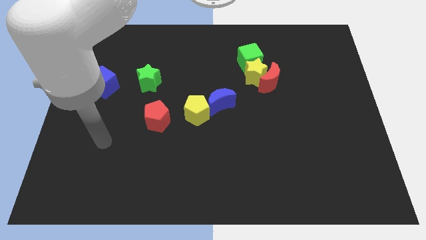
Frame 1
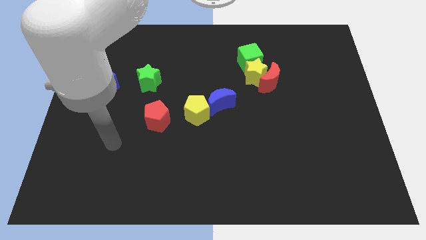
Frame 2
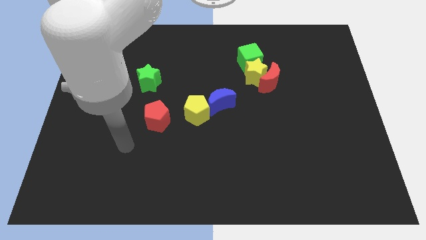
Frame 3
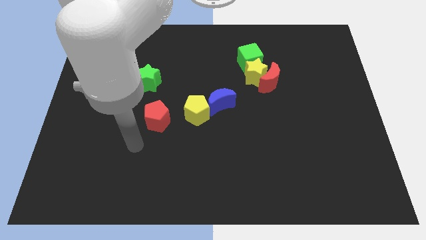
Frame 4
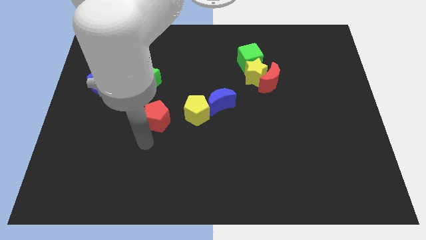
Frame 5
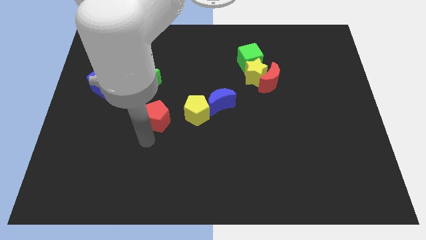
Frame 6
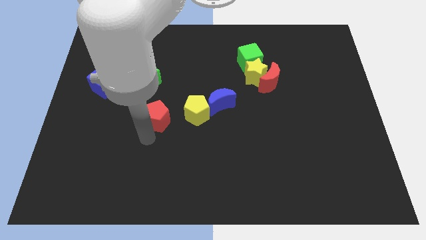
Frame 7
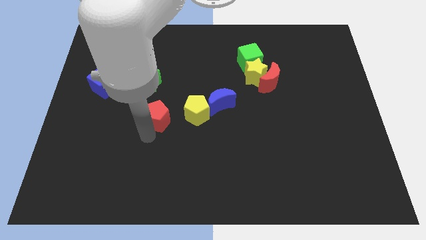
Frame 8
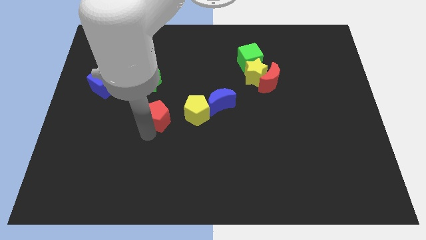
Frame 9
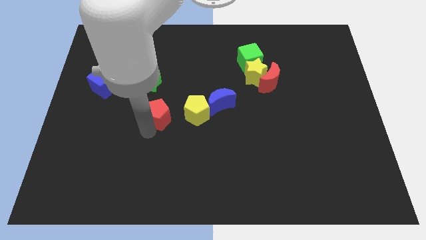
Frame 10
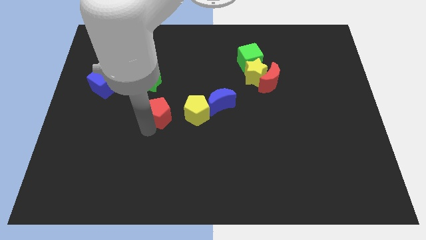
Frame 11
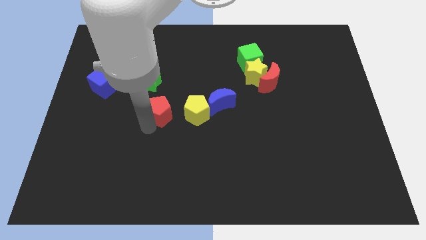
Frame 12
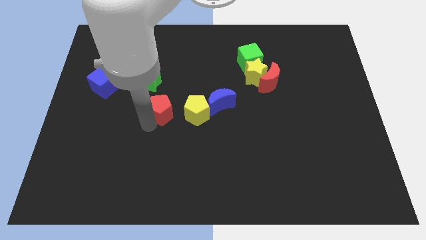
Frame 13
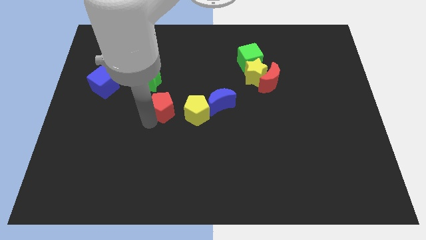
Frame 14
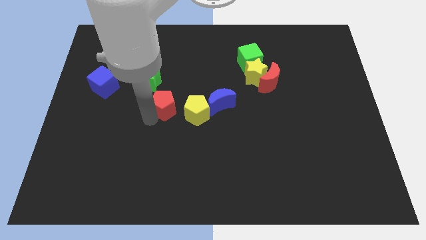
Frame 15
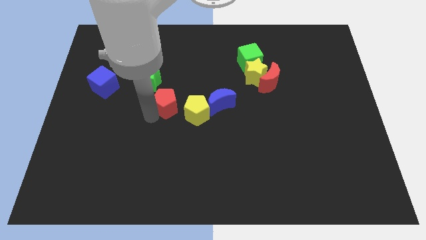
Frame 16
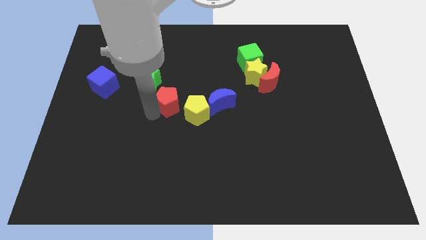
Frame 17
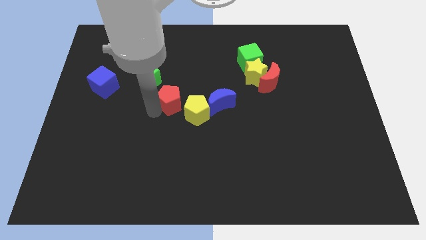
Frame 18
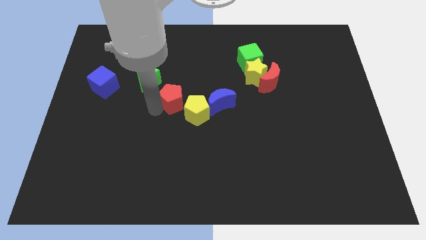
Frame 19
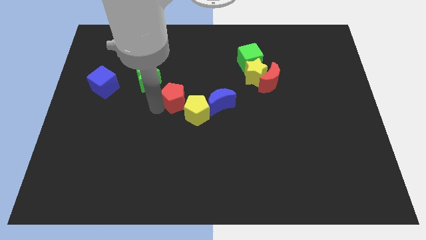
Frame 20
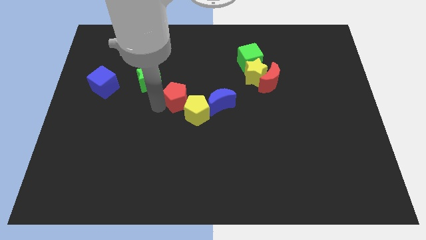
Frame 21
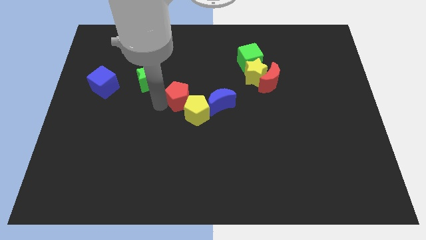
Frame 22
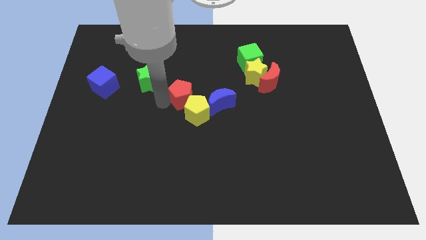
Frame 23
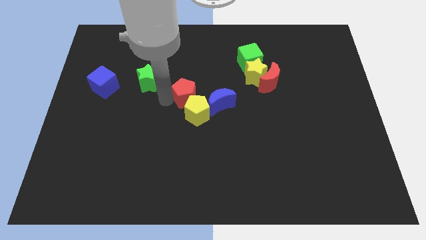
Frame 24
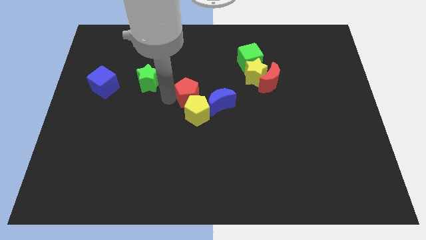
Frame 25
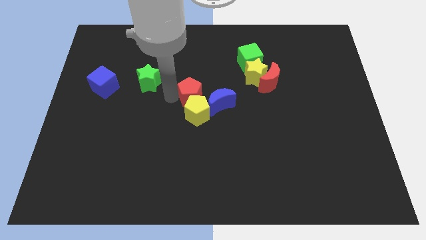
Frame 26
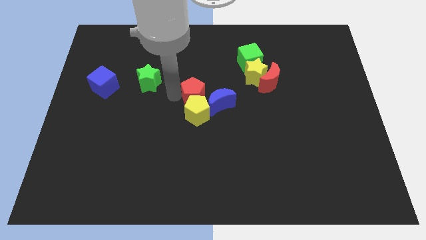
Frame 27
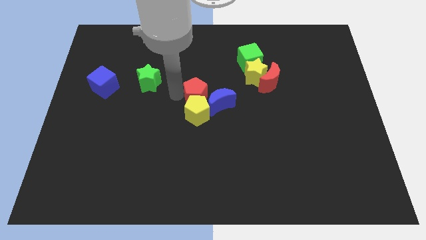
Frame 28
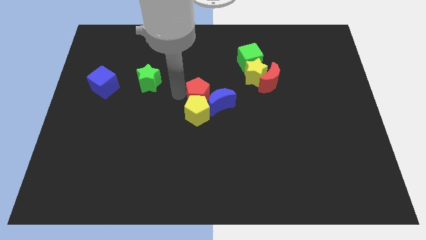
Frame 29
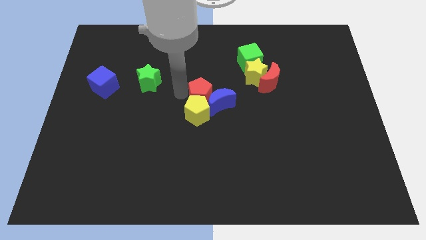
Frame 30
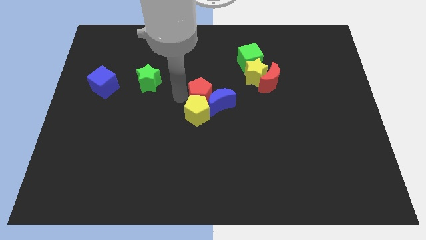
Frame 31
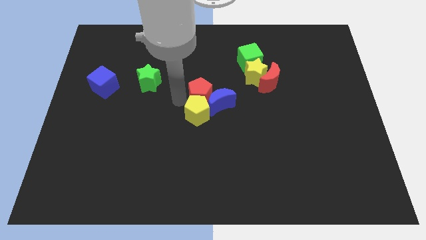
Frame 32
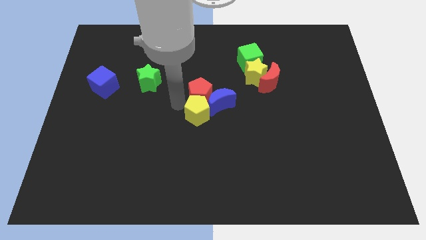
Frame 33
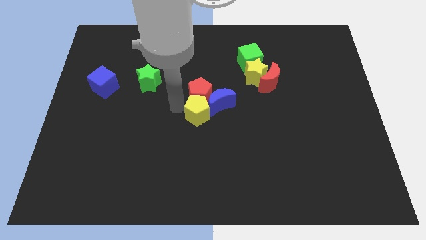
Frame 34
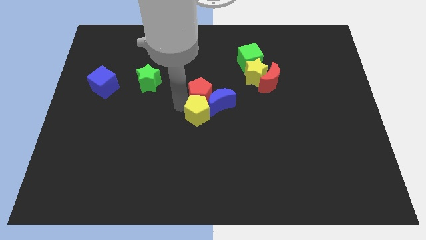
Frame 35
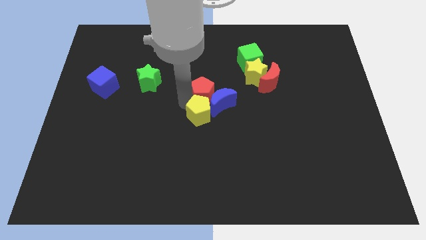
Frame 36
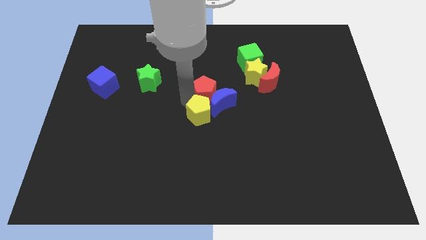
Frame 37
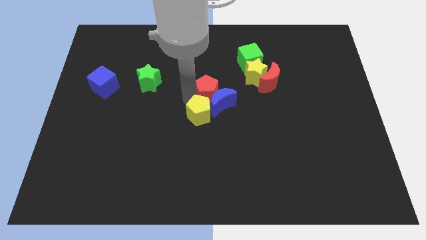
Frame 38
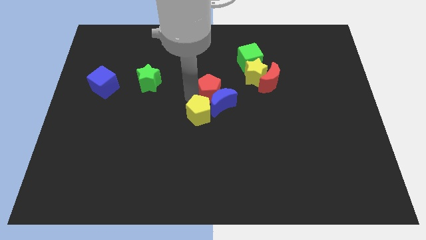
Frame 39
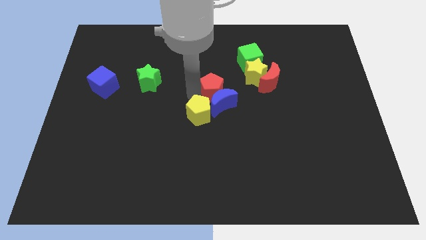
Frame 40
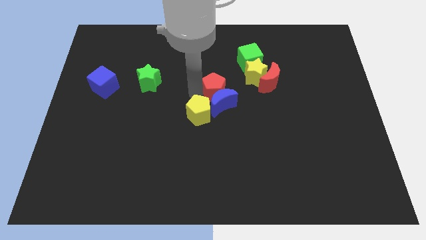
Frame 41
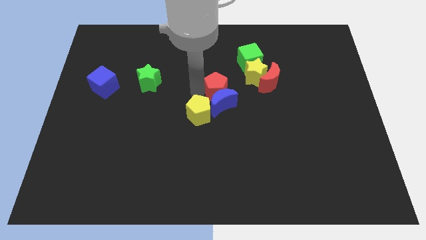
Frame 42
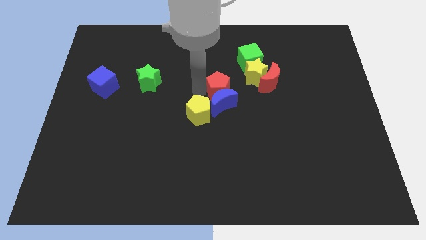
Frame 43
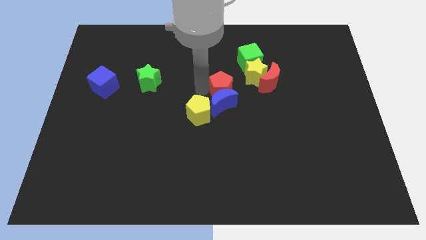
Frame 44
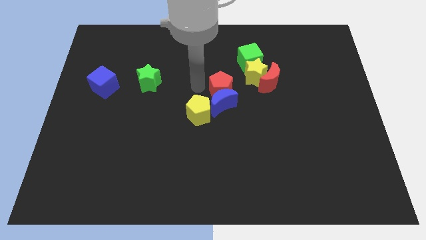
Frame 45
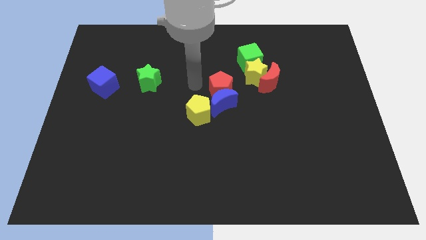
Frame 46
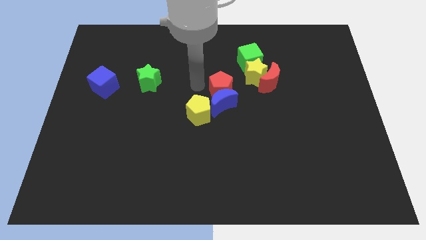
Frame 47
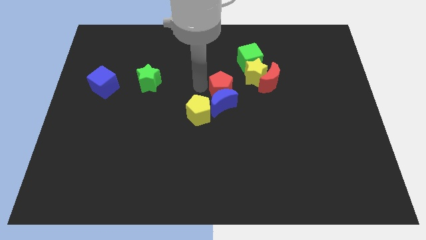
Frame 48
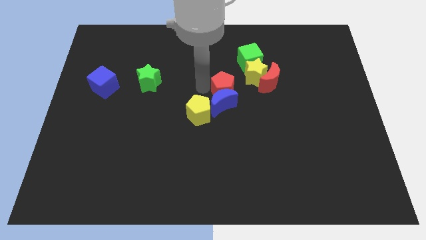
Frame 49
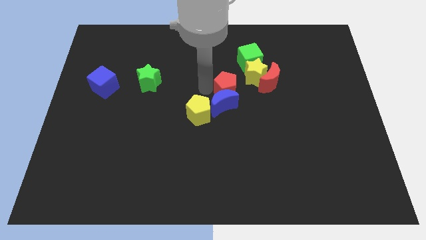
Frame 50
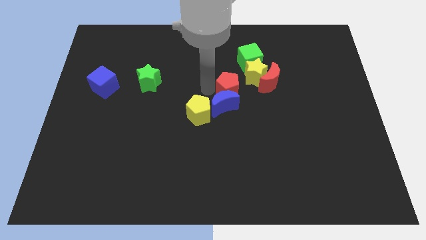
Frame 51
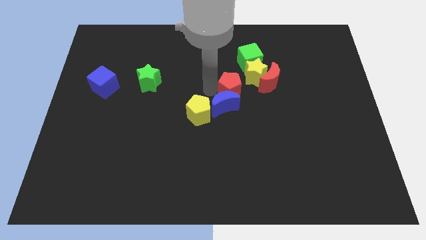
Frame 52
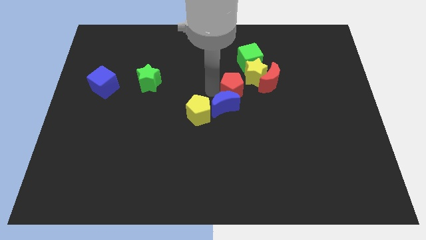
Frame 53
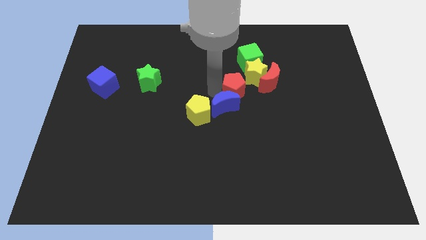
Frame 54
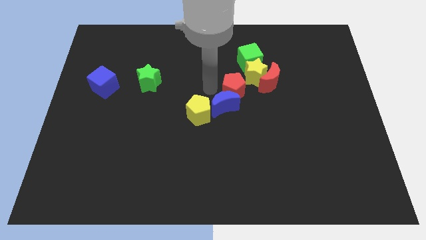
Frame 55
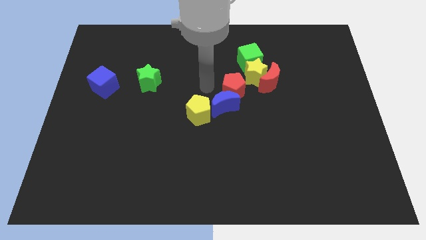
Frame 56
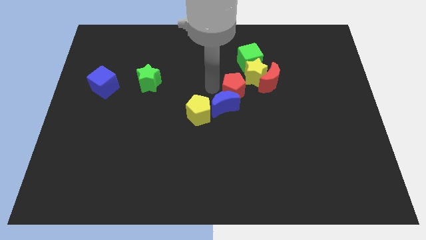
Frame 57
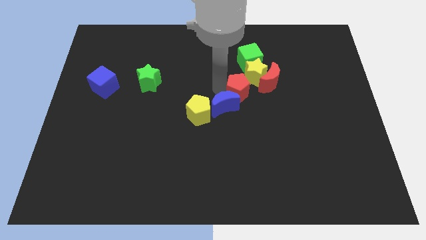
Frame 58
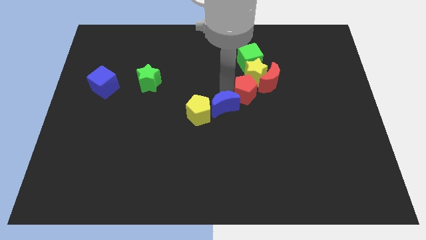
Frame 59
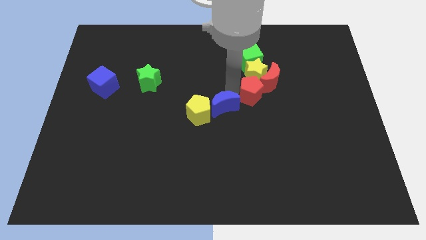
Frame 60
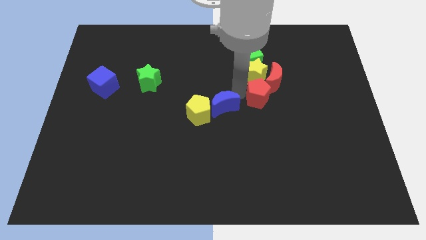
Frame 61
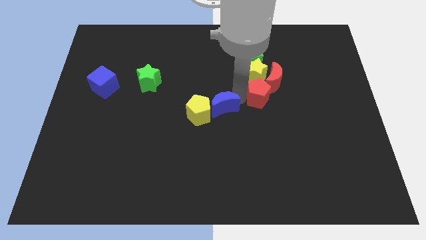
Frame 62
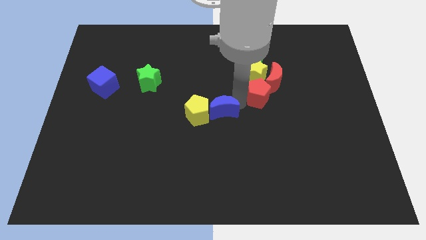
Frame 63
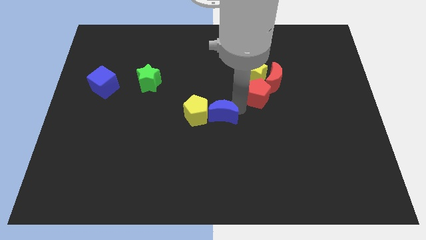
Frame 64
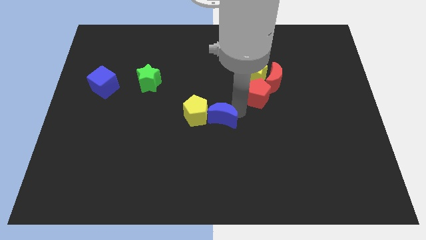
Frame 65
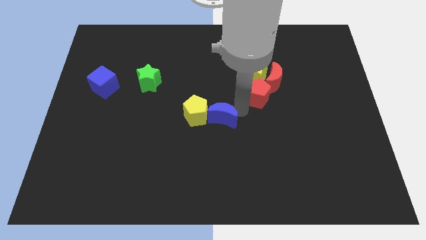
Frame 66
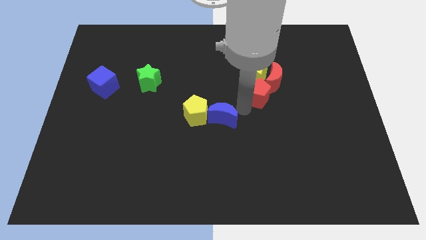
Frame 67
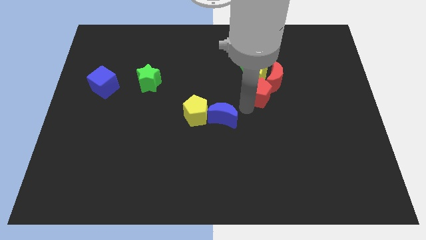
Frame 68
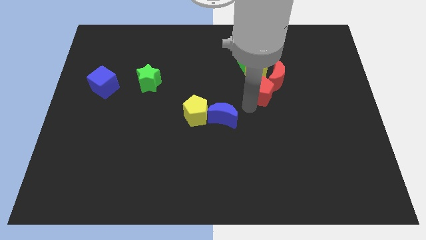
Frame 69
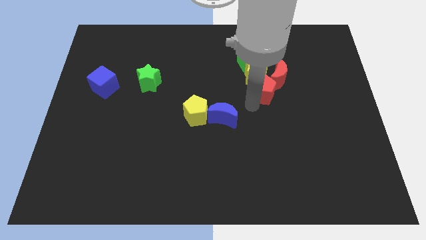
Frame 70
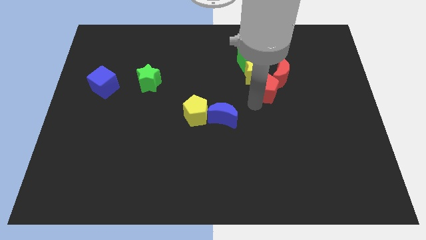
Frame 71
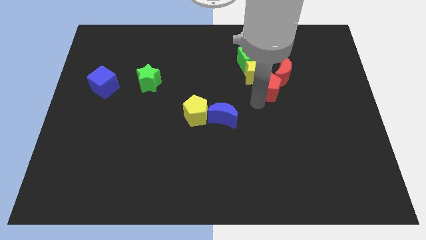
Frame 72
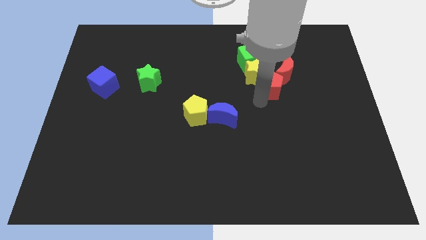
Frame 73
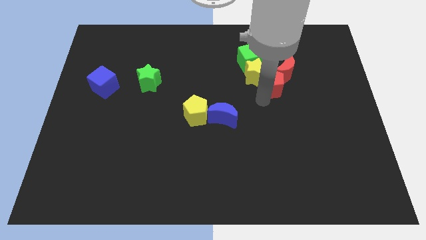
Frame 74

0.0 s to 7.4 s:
move the red pentagon next to the red moon
